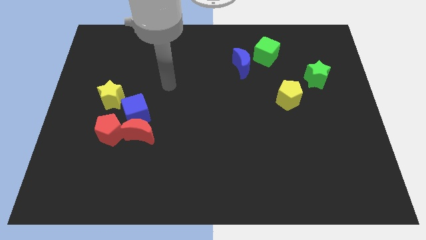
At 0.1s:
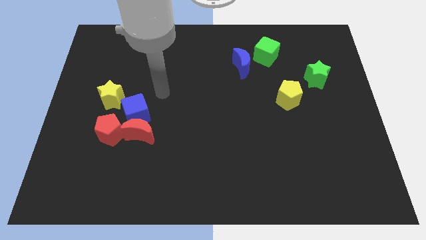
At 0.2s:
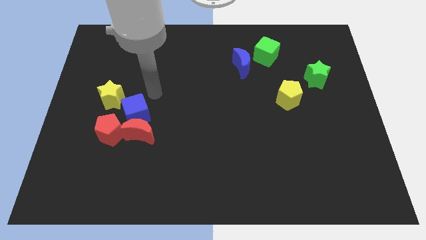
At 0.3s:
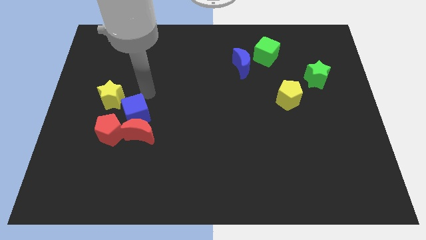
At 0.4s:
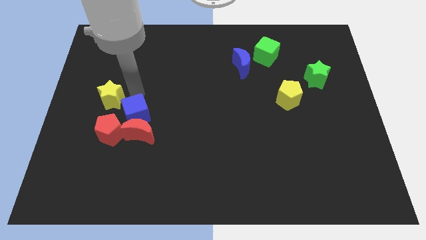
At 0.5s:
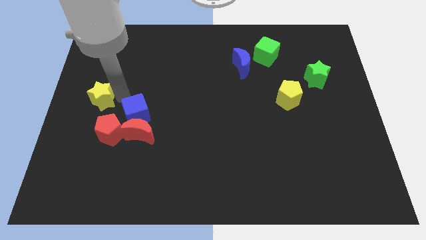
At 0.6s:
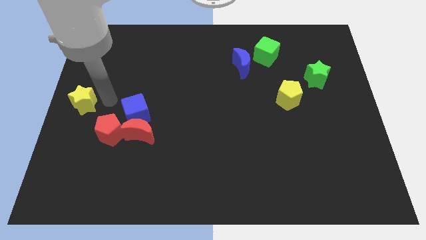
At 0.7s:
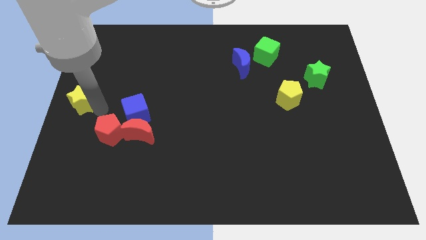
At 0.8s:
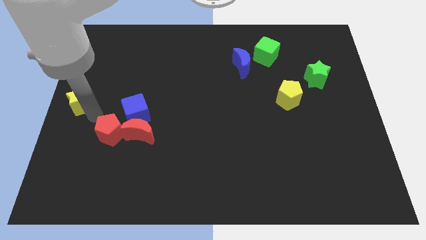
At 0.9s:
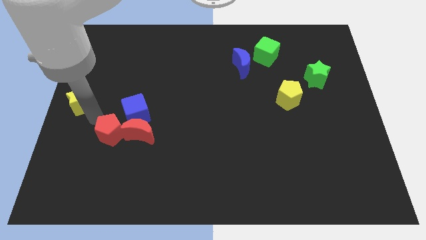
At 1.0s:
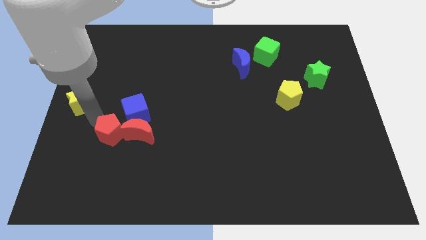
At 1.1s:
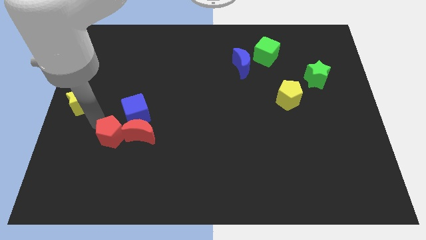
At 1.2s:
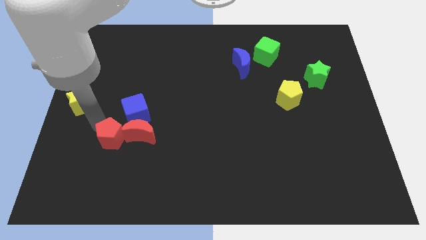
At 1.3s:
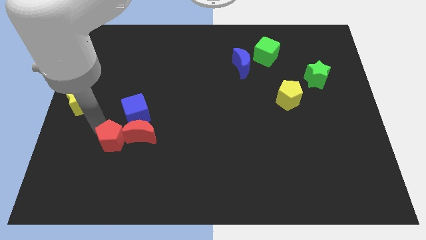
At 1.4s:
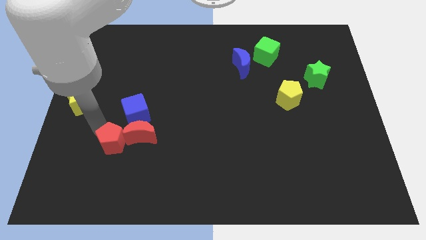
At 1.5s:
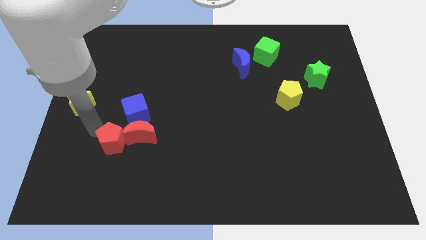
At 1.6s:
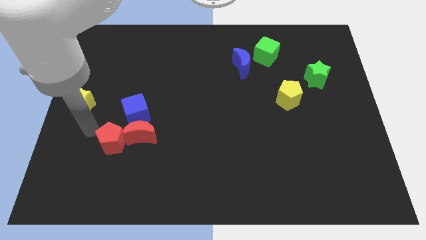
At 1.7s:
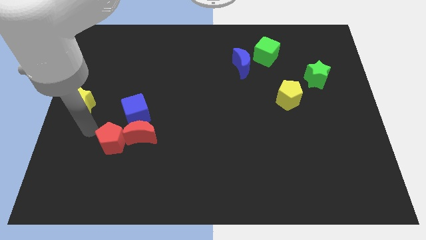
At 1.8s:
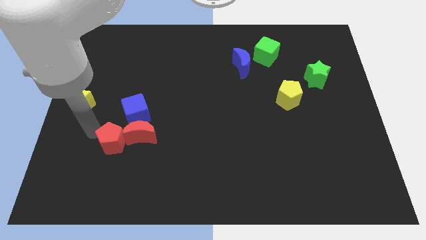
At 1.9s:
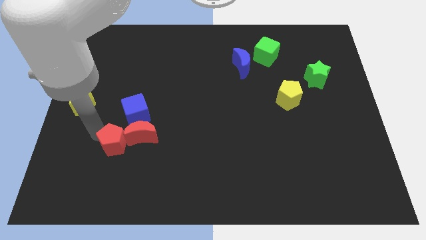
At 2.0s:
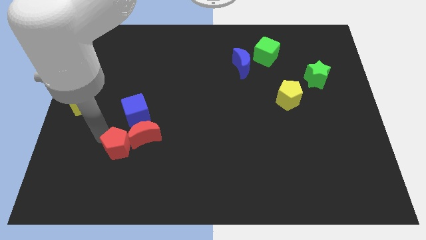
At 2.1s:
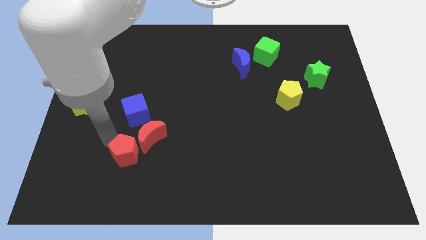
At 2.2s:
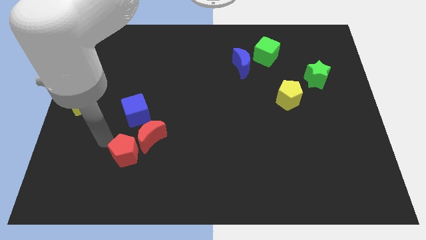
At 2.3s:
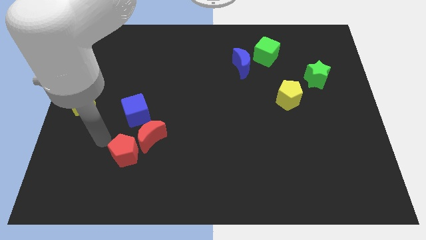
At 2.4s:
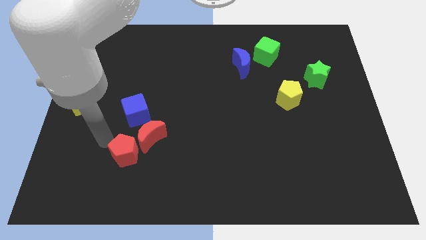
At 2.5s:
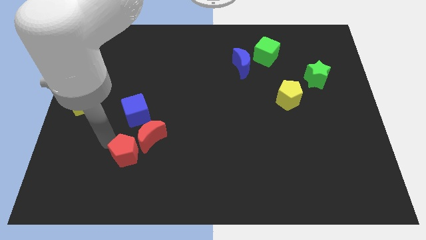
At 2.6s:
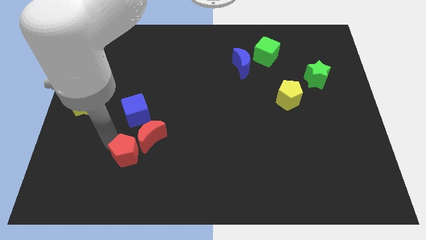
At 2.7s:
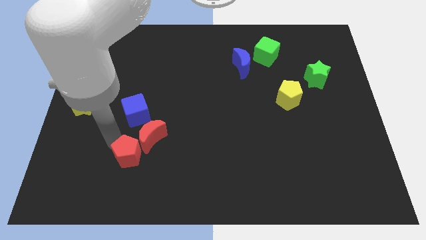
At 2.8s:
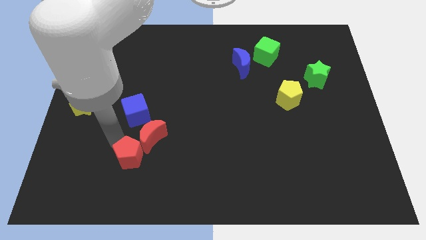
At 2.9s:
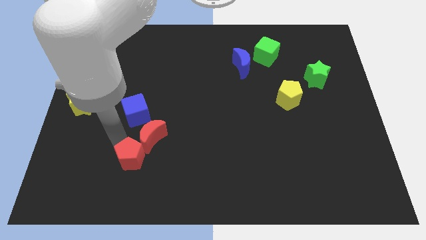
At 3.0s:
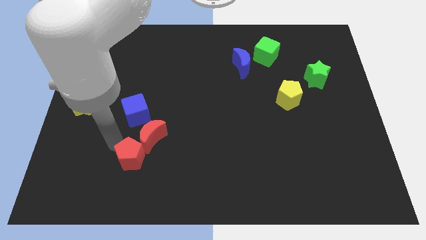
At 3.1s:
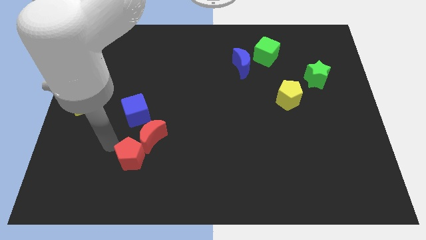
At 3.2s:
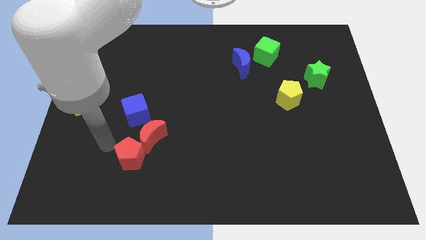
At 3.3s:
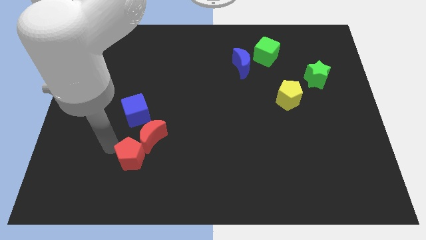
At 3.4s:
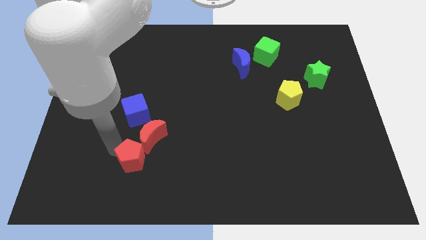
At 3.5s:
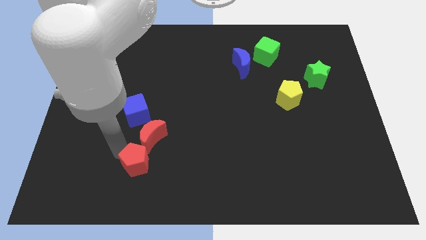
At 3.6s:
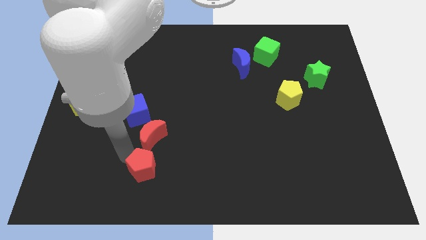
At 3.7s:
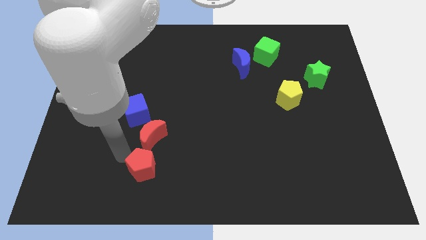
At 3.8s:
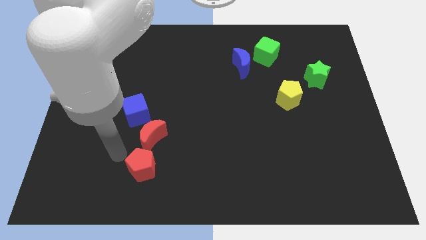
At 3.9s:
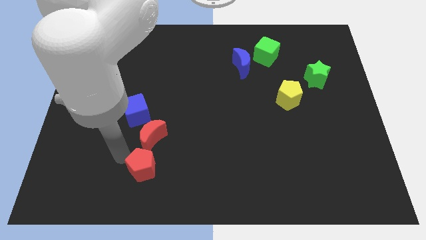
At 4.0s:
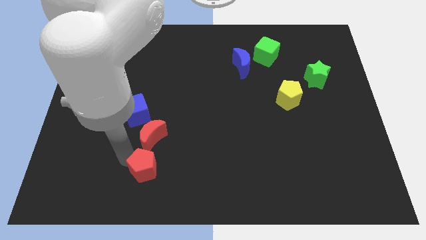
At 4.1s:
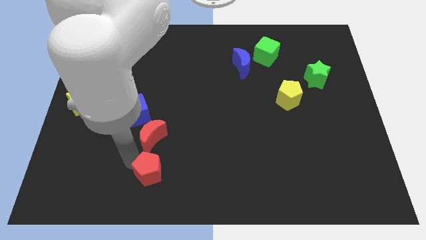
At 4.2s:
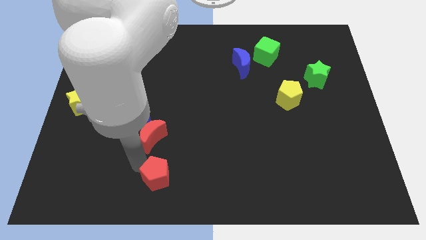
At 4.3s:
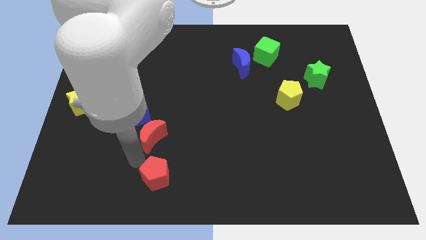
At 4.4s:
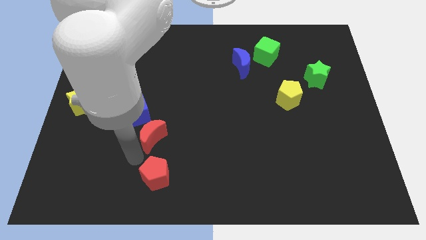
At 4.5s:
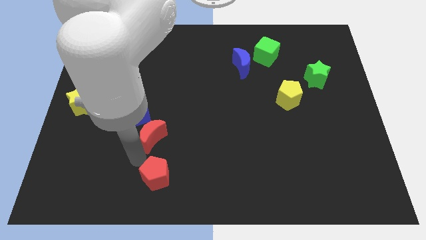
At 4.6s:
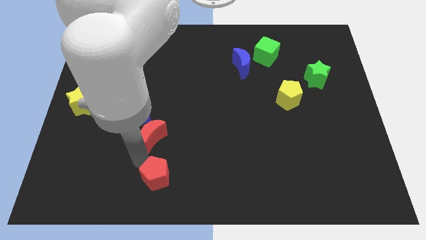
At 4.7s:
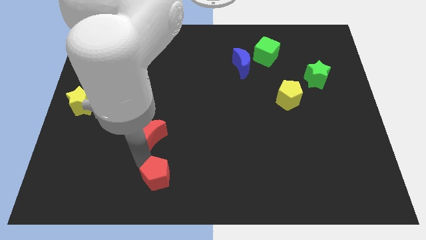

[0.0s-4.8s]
slide the red pentagon to the bottom

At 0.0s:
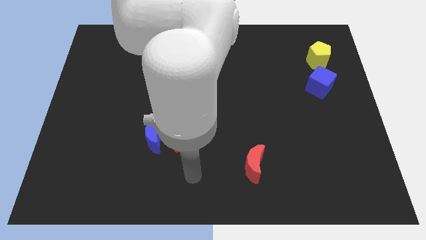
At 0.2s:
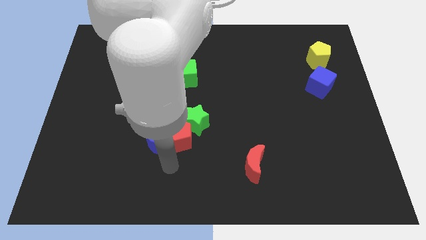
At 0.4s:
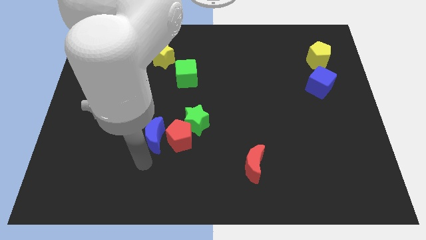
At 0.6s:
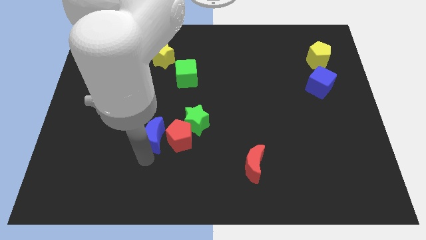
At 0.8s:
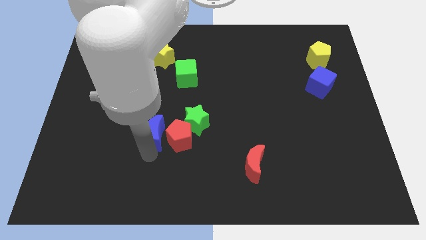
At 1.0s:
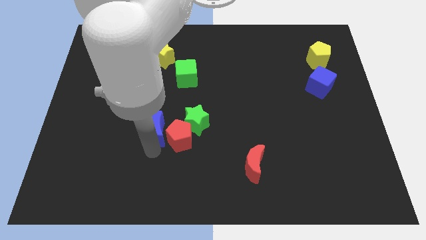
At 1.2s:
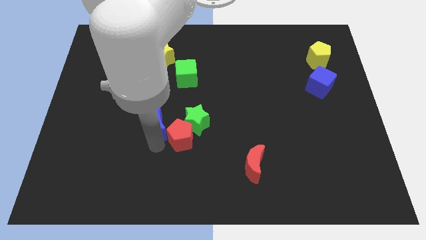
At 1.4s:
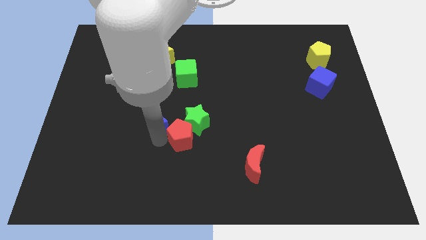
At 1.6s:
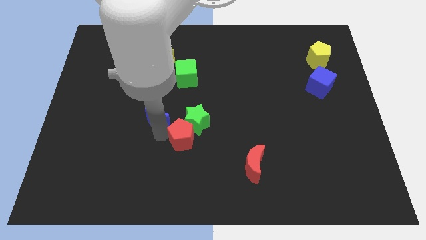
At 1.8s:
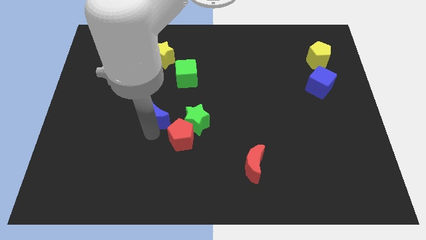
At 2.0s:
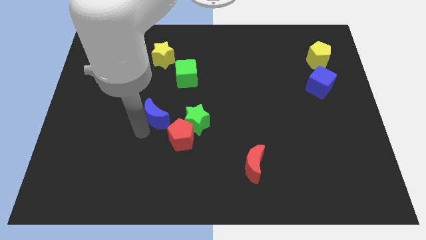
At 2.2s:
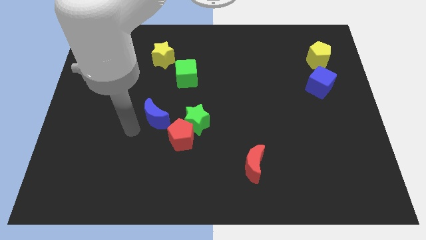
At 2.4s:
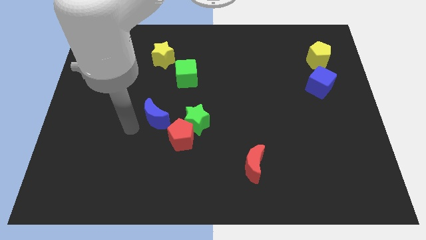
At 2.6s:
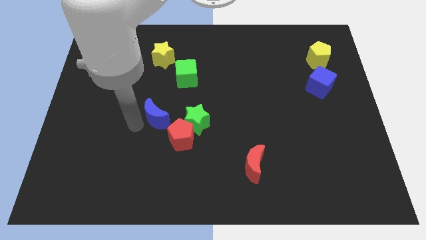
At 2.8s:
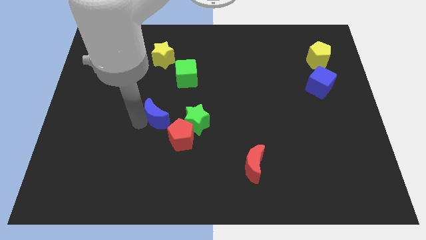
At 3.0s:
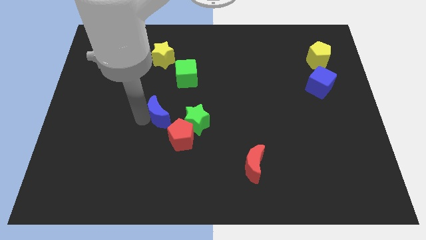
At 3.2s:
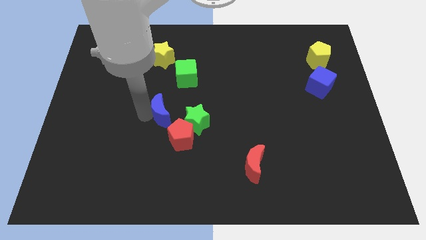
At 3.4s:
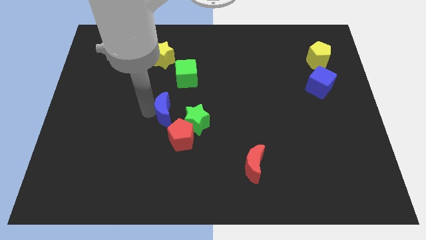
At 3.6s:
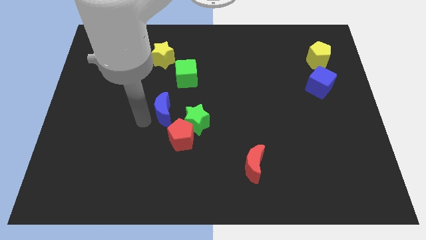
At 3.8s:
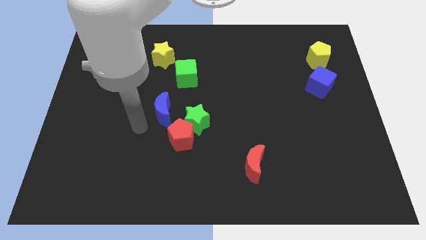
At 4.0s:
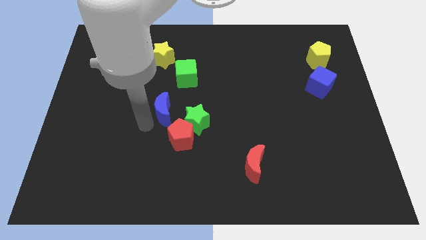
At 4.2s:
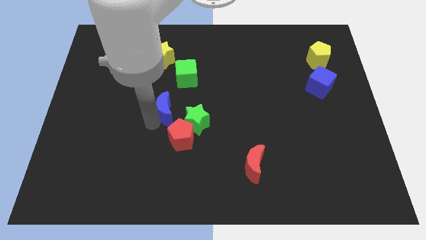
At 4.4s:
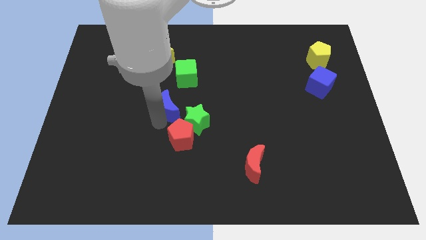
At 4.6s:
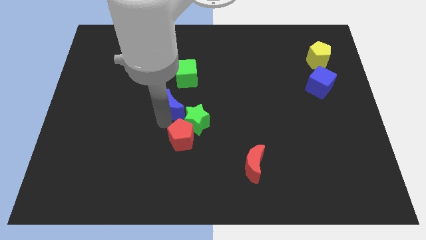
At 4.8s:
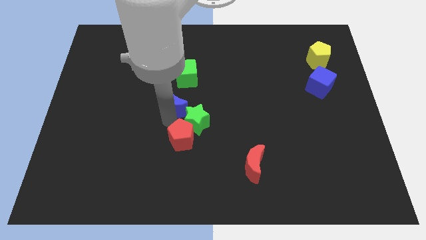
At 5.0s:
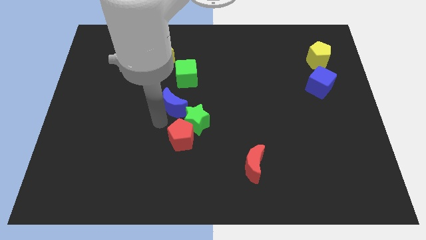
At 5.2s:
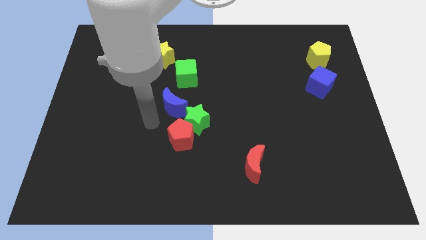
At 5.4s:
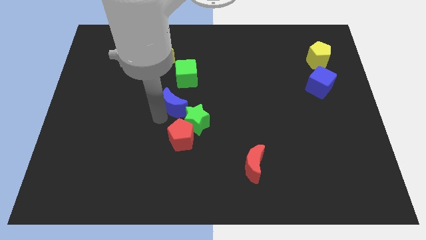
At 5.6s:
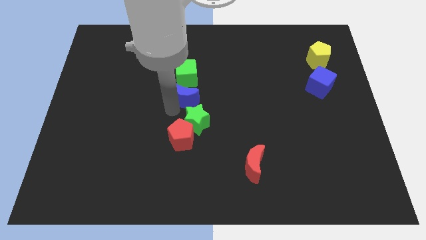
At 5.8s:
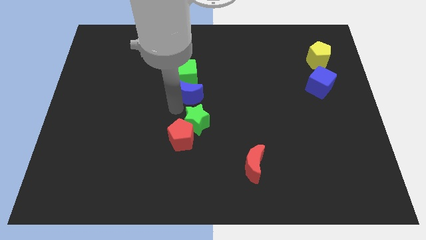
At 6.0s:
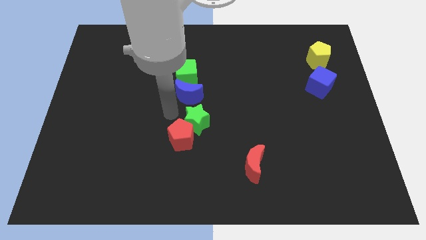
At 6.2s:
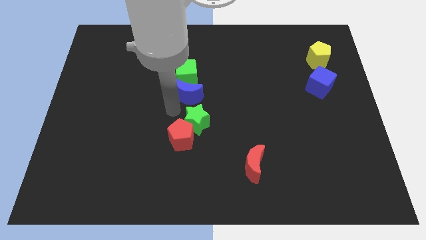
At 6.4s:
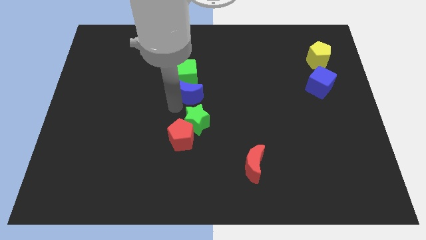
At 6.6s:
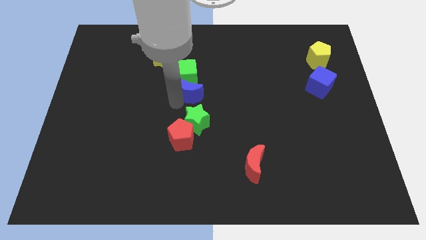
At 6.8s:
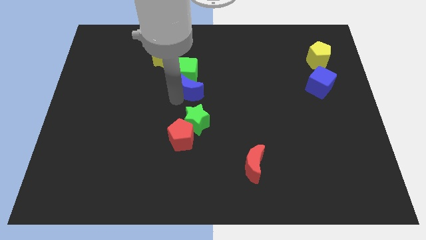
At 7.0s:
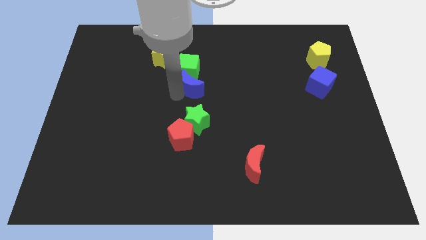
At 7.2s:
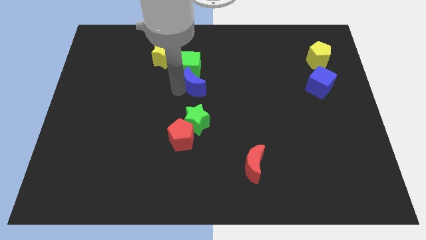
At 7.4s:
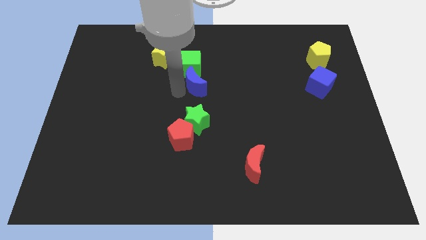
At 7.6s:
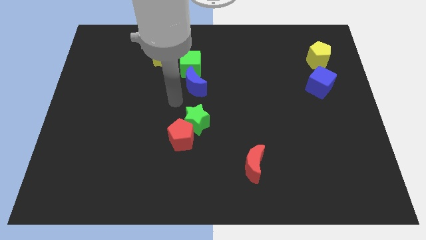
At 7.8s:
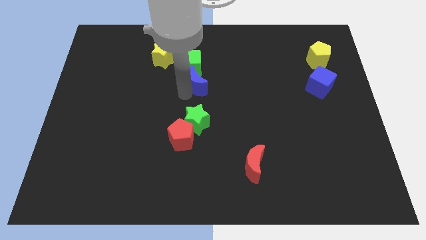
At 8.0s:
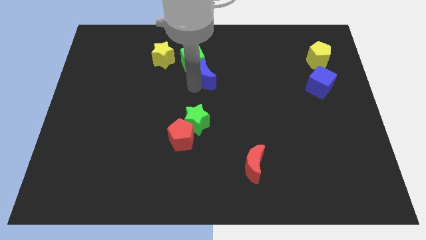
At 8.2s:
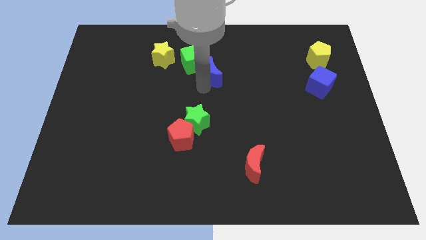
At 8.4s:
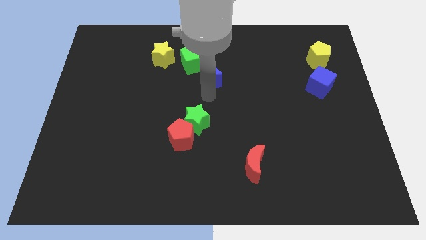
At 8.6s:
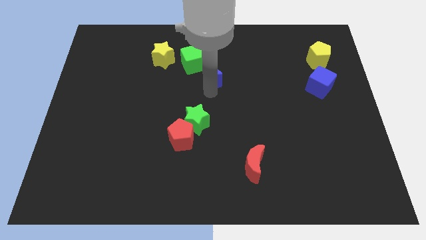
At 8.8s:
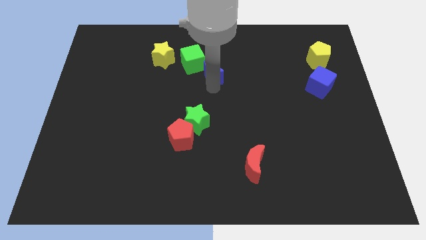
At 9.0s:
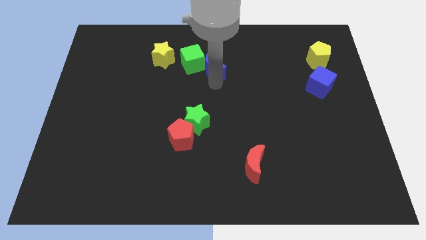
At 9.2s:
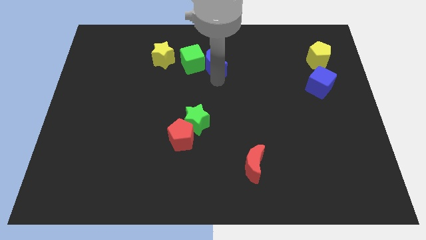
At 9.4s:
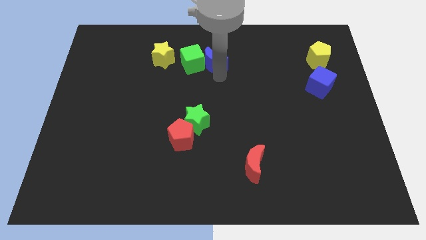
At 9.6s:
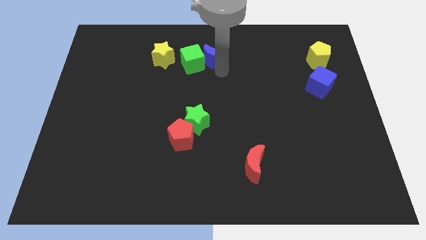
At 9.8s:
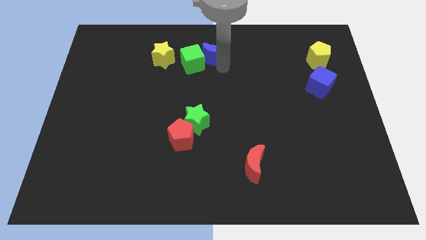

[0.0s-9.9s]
slide the blue moon to the top side
